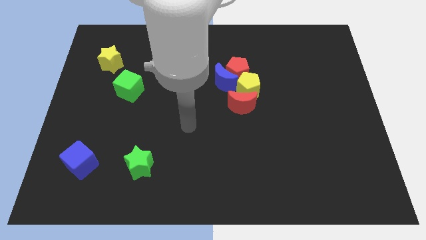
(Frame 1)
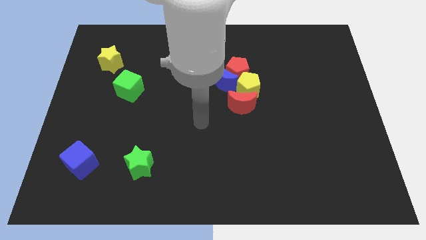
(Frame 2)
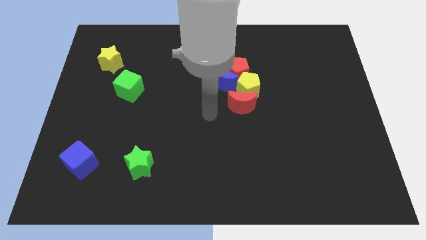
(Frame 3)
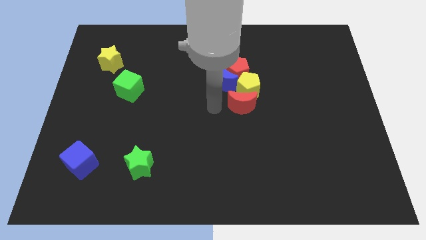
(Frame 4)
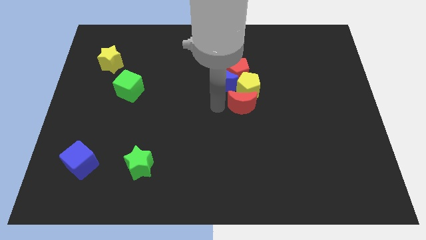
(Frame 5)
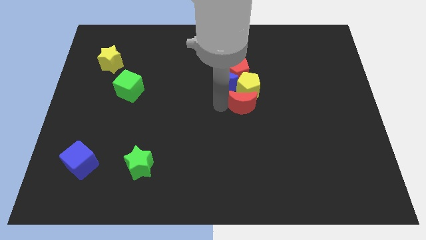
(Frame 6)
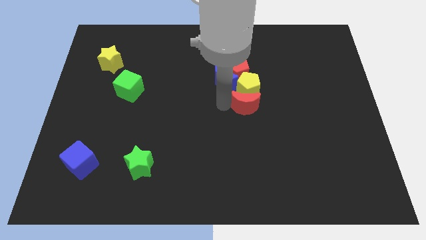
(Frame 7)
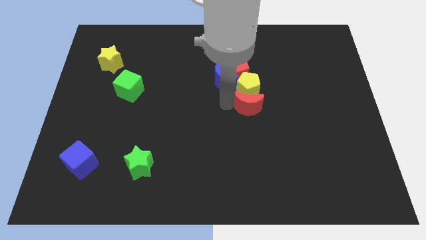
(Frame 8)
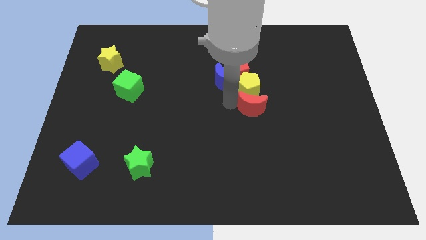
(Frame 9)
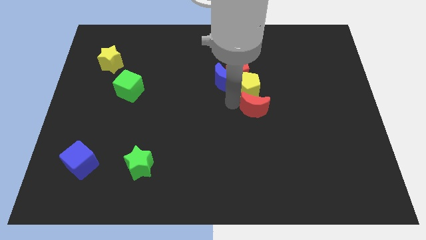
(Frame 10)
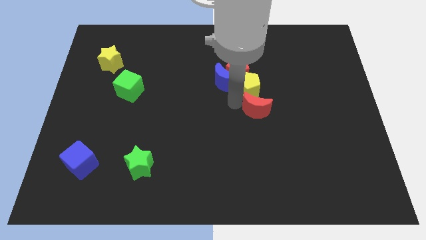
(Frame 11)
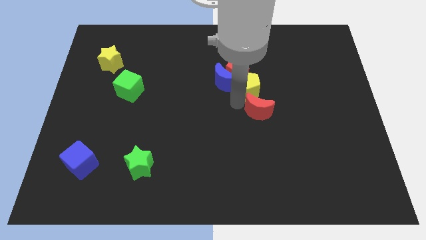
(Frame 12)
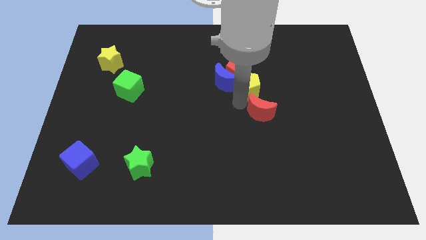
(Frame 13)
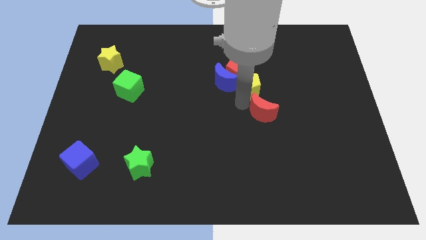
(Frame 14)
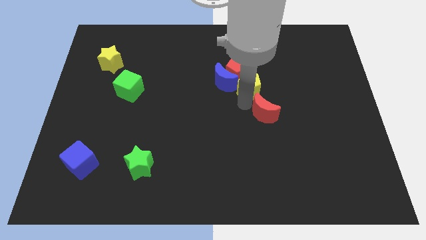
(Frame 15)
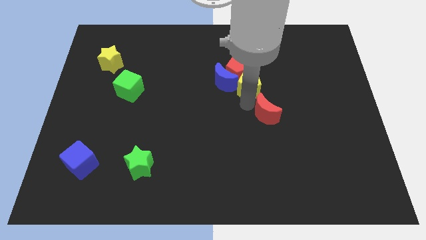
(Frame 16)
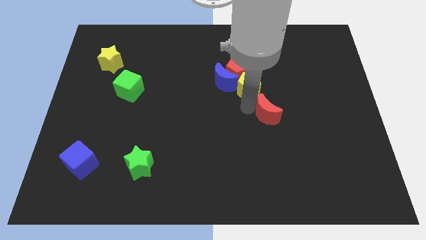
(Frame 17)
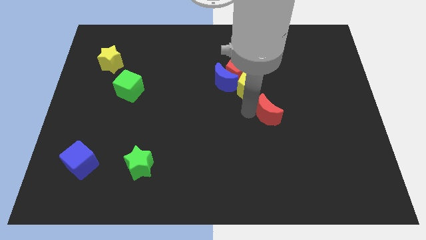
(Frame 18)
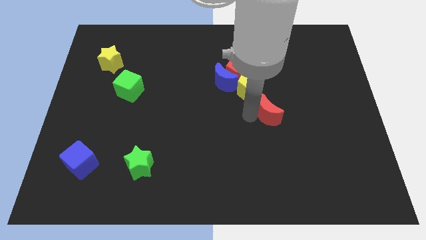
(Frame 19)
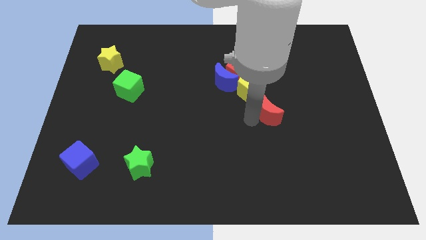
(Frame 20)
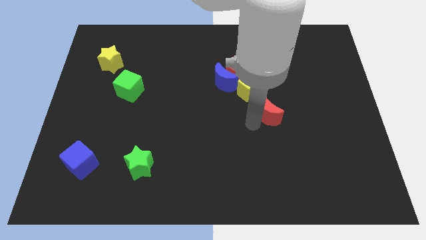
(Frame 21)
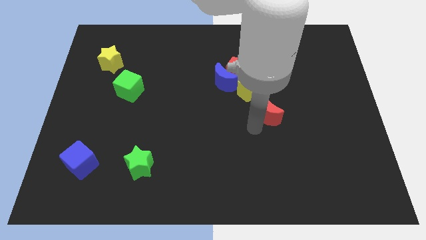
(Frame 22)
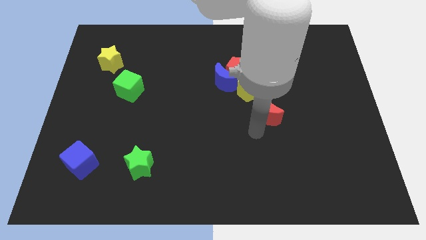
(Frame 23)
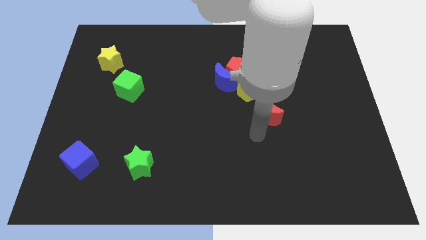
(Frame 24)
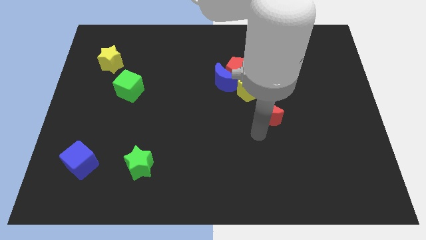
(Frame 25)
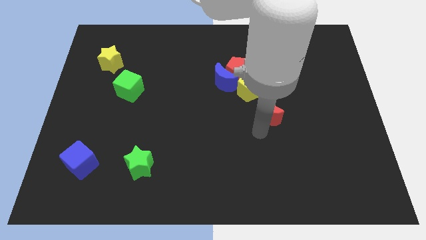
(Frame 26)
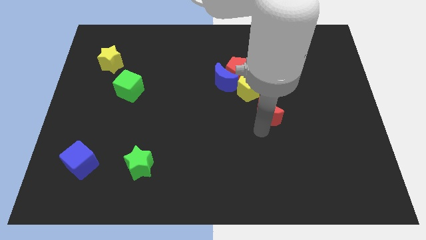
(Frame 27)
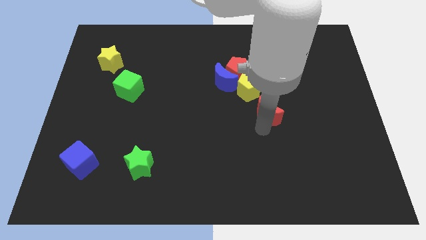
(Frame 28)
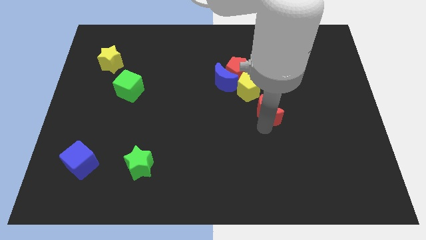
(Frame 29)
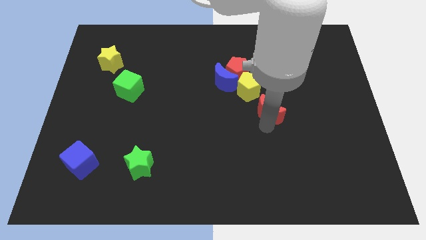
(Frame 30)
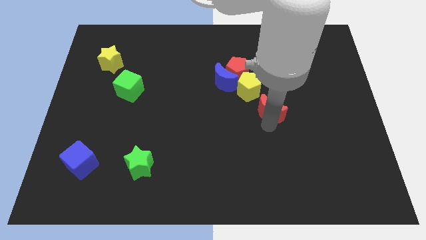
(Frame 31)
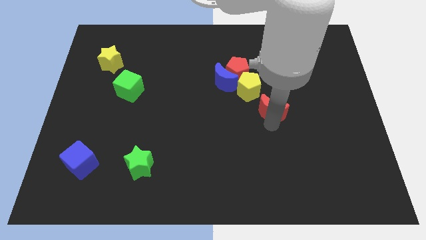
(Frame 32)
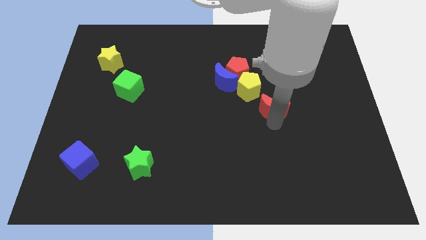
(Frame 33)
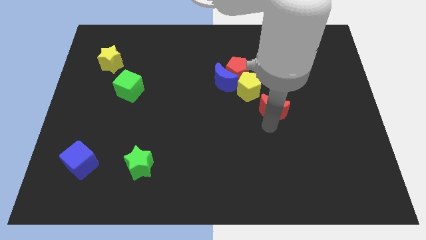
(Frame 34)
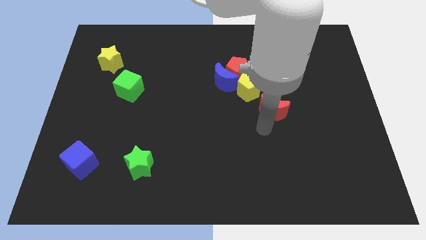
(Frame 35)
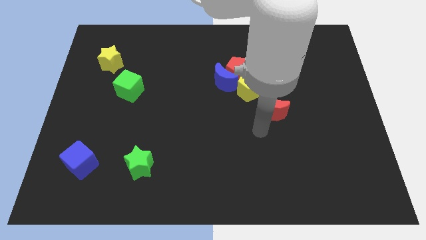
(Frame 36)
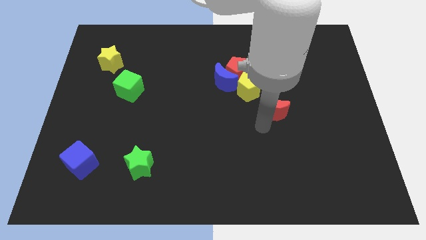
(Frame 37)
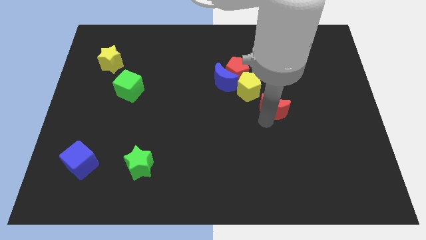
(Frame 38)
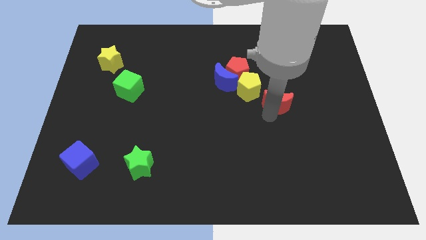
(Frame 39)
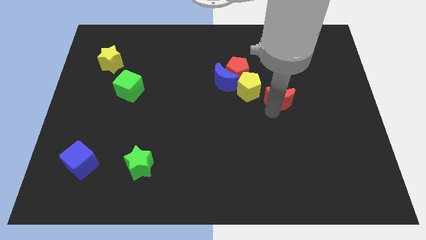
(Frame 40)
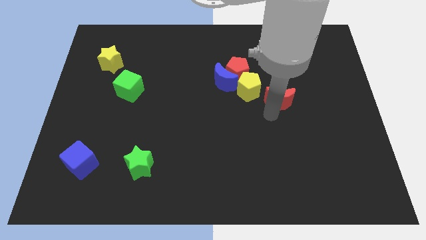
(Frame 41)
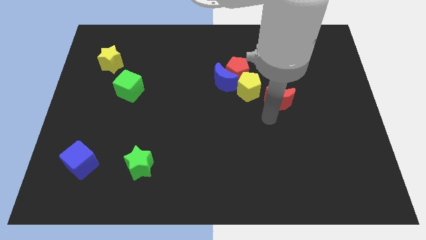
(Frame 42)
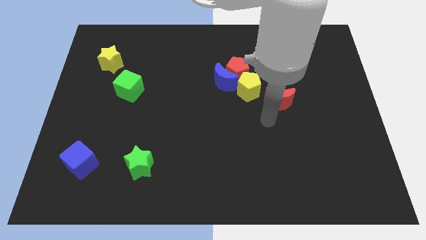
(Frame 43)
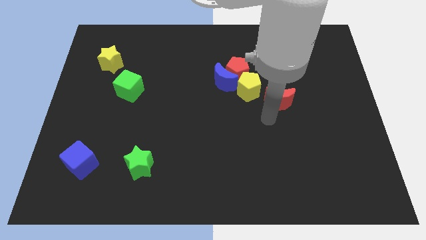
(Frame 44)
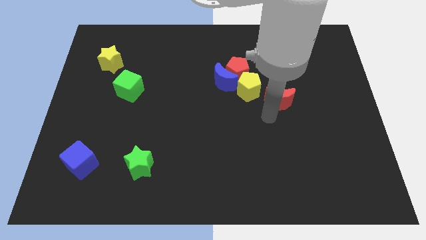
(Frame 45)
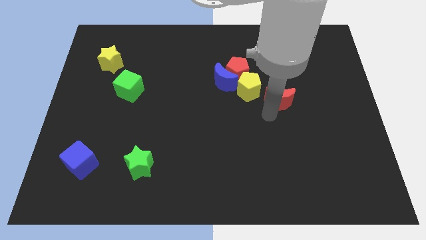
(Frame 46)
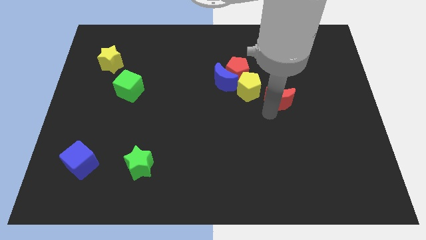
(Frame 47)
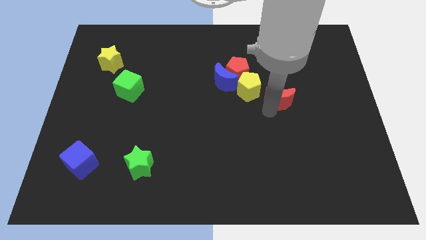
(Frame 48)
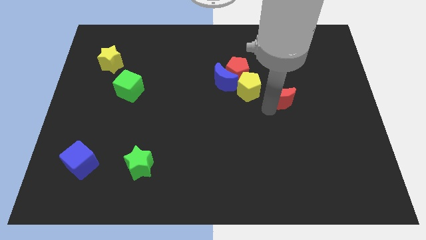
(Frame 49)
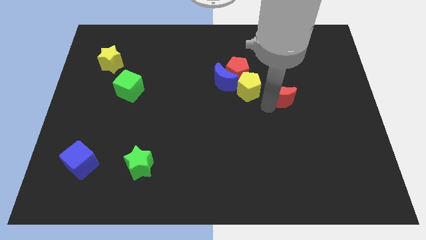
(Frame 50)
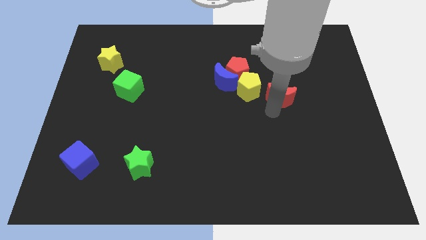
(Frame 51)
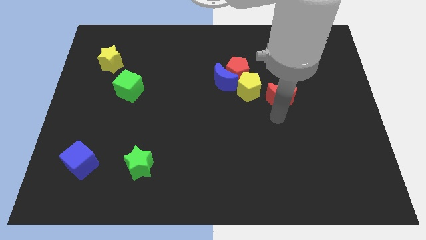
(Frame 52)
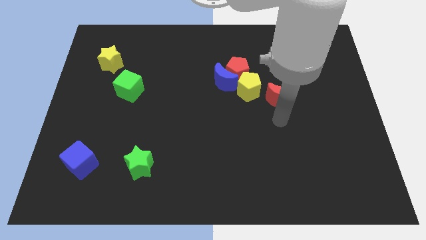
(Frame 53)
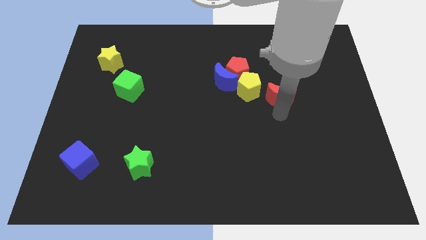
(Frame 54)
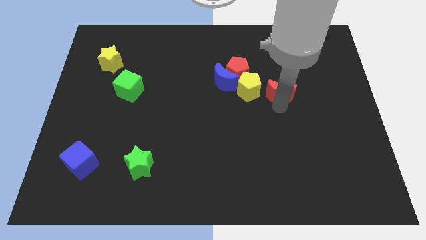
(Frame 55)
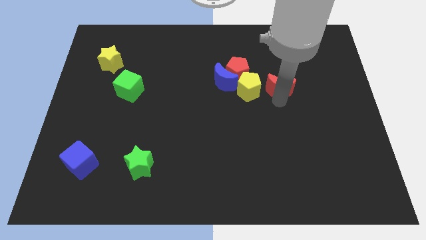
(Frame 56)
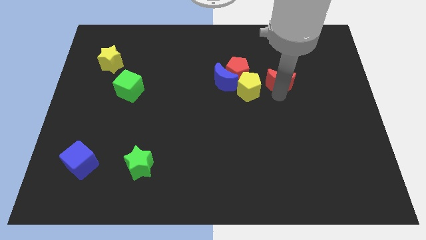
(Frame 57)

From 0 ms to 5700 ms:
push the red moon right of the red pentagon

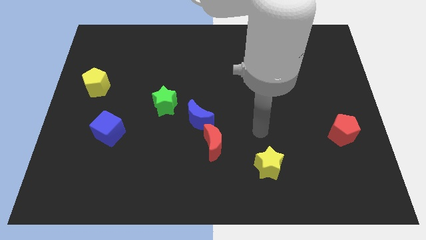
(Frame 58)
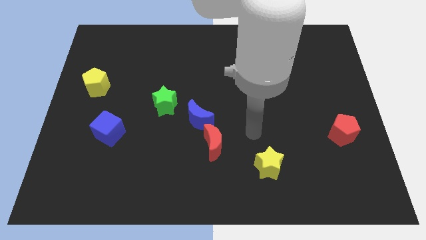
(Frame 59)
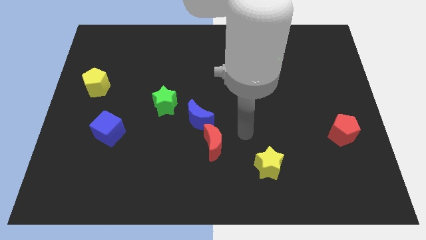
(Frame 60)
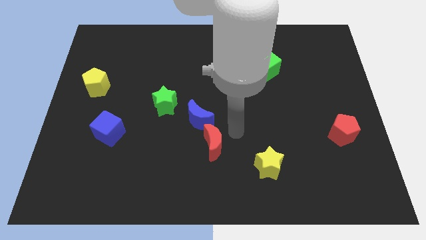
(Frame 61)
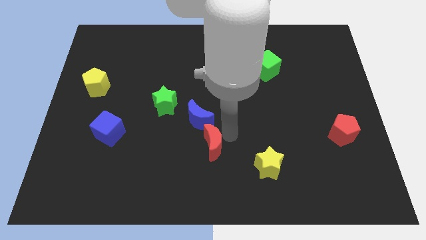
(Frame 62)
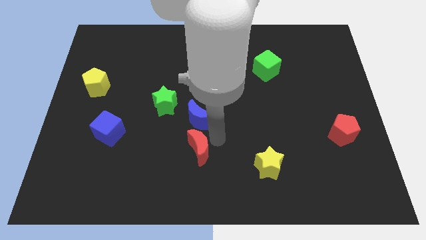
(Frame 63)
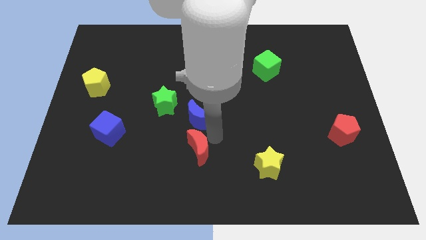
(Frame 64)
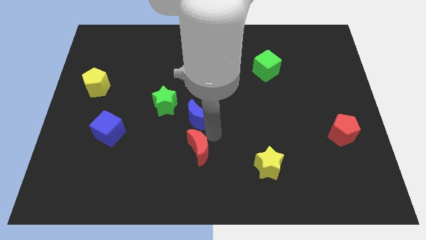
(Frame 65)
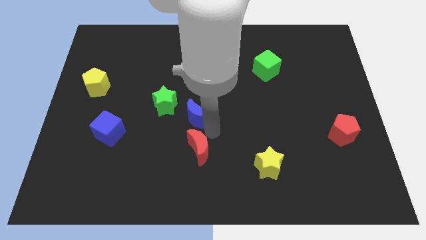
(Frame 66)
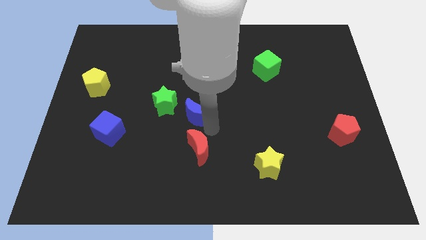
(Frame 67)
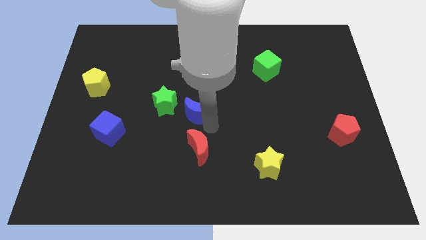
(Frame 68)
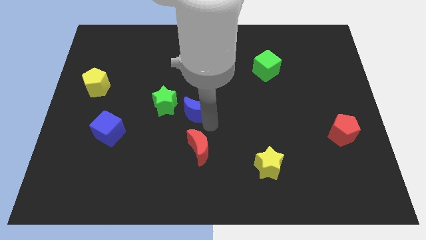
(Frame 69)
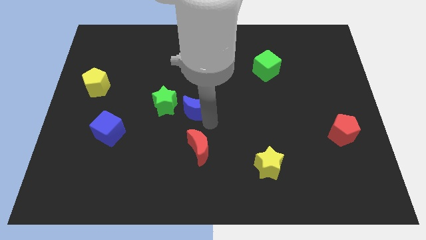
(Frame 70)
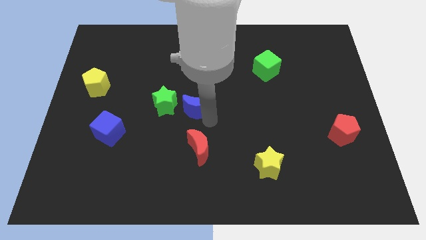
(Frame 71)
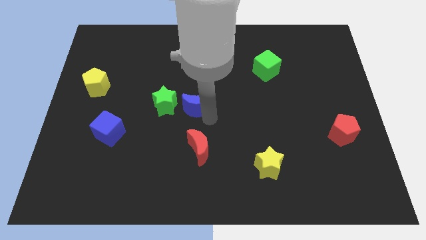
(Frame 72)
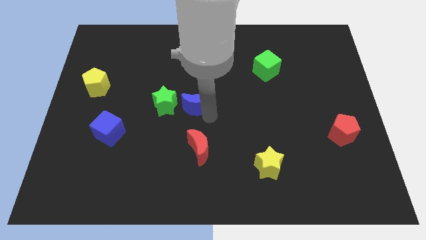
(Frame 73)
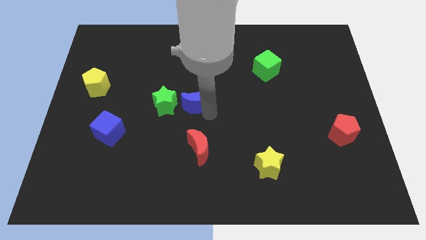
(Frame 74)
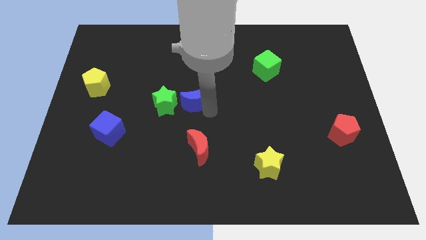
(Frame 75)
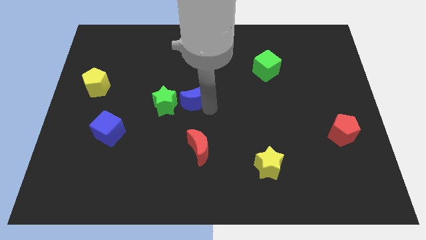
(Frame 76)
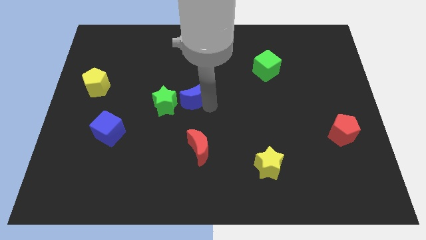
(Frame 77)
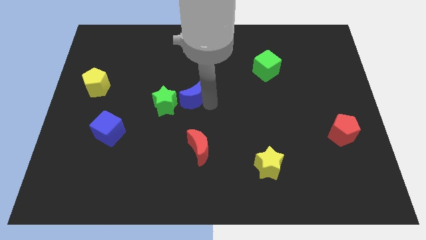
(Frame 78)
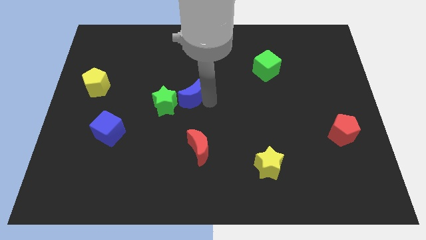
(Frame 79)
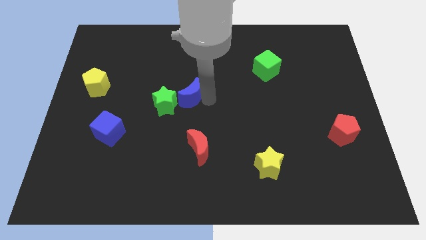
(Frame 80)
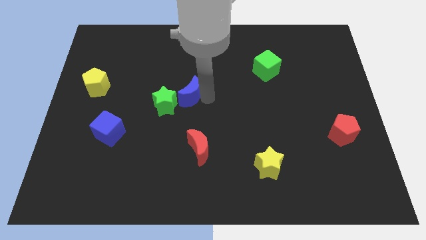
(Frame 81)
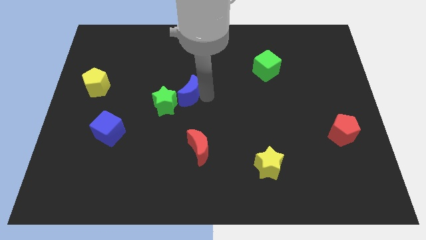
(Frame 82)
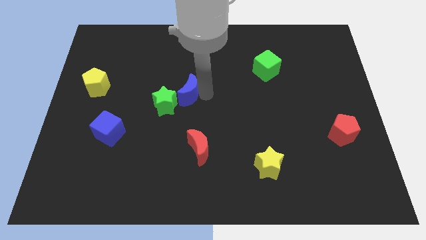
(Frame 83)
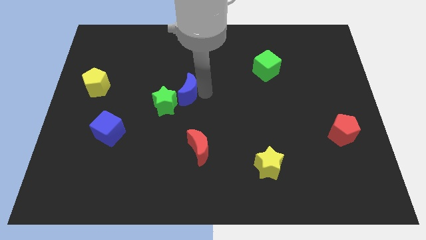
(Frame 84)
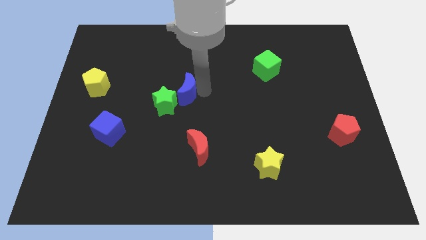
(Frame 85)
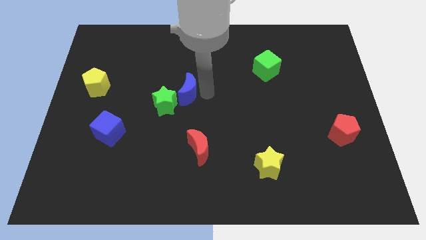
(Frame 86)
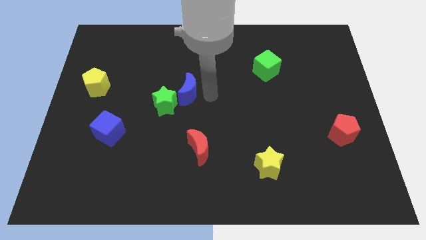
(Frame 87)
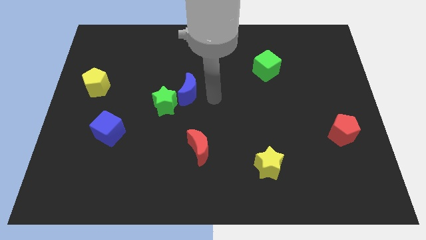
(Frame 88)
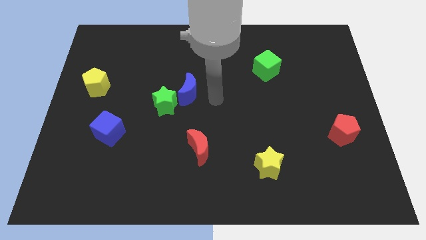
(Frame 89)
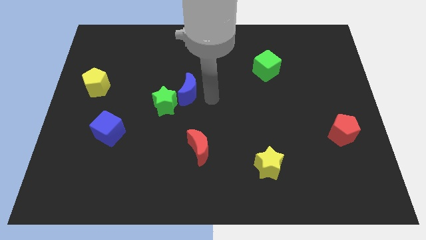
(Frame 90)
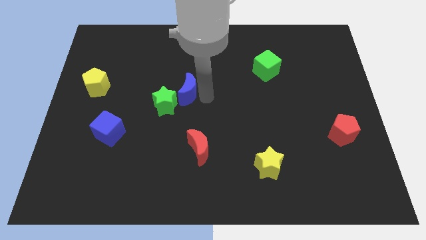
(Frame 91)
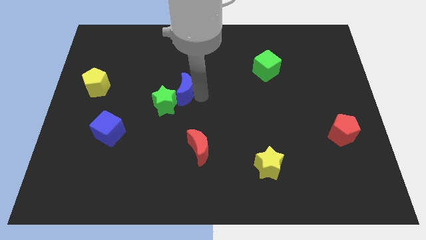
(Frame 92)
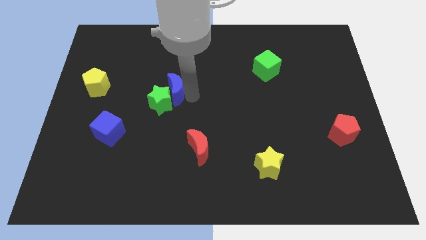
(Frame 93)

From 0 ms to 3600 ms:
push the blue moon to the top side of the green star
